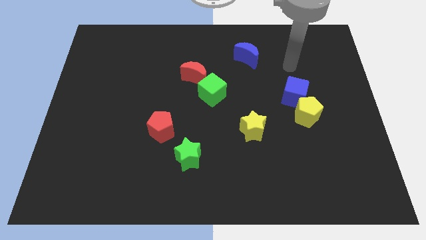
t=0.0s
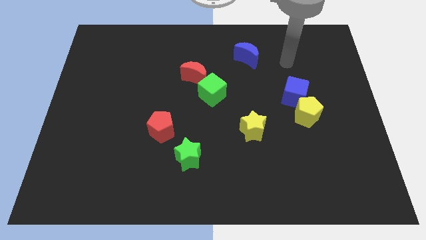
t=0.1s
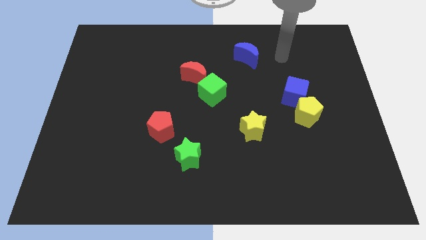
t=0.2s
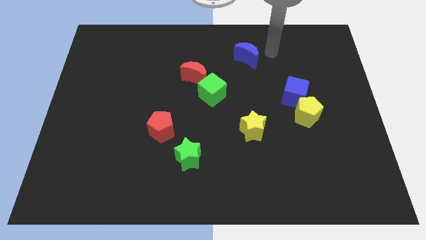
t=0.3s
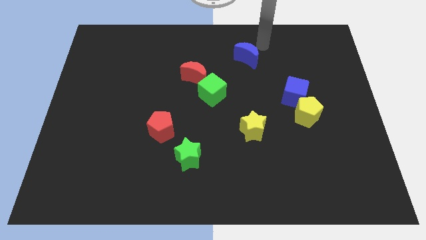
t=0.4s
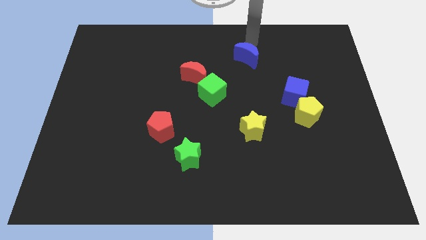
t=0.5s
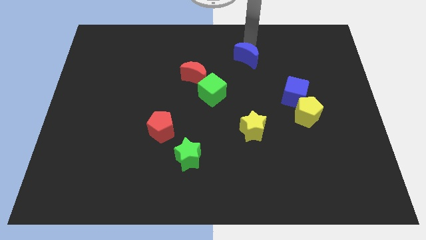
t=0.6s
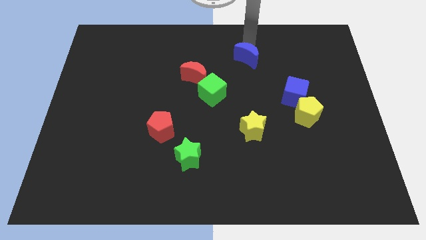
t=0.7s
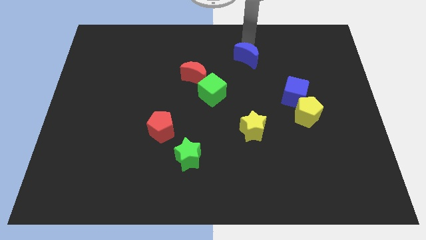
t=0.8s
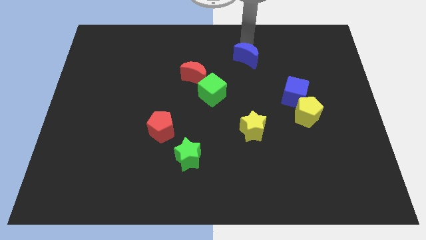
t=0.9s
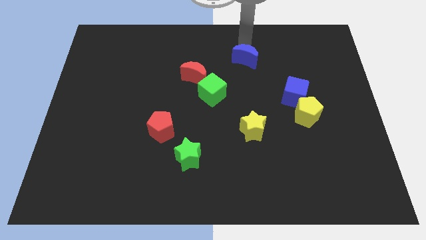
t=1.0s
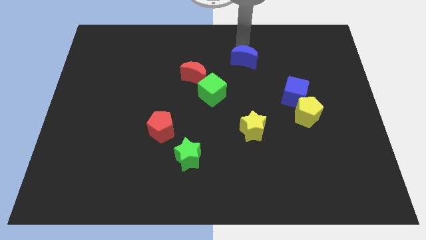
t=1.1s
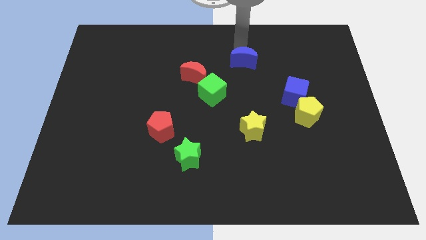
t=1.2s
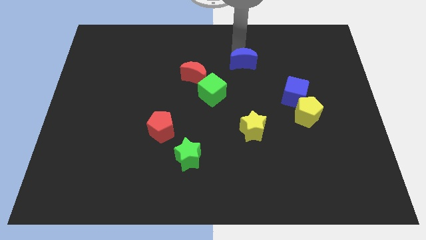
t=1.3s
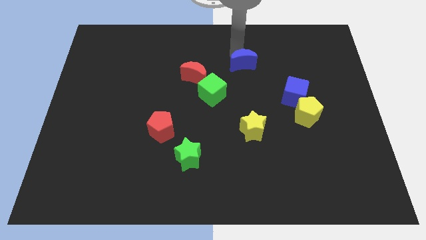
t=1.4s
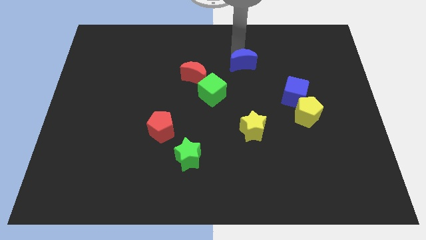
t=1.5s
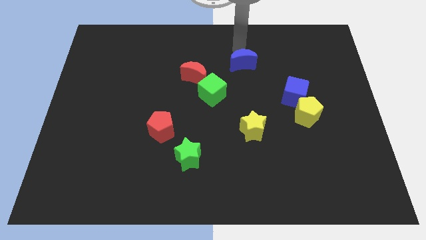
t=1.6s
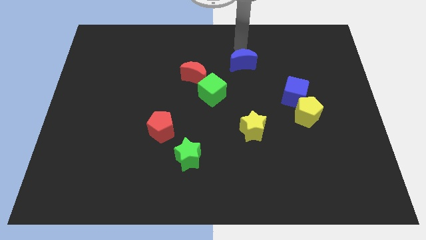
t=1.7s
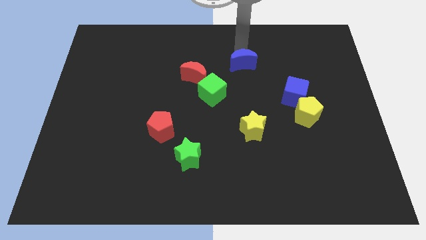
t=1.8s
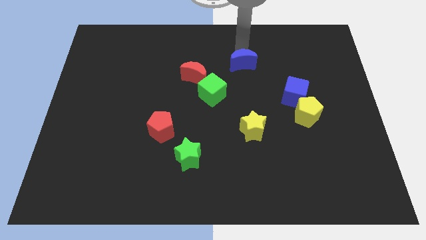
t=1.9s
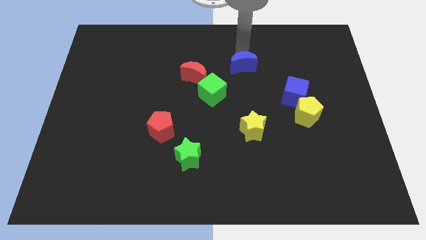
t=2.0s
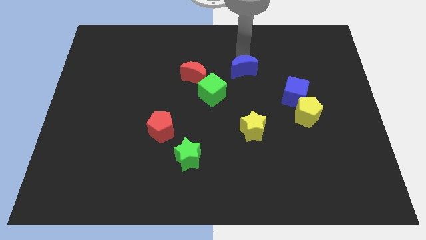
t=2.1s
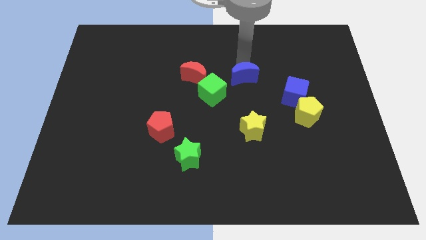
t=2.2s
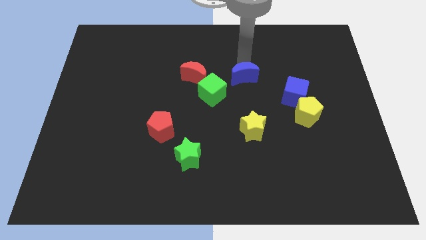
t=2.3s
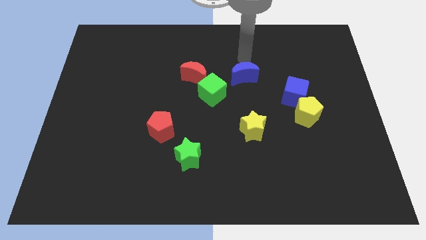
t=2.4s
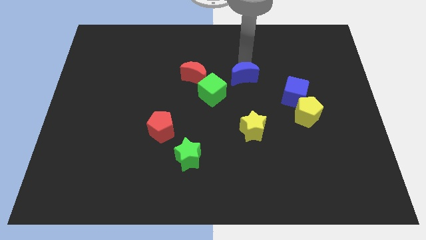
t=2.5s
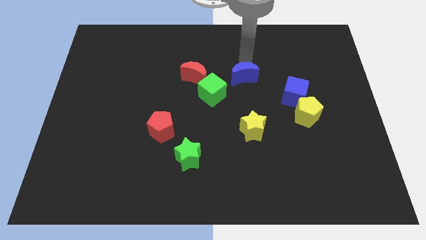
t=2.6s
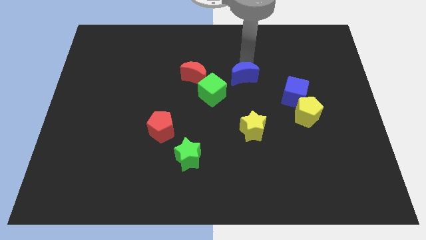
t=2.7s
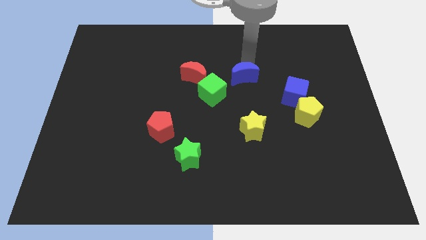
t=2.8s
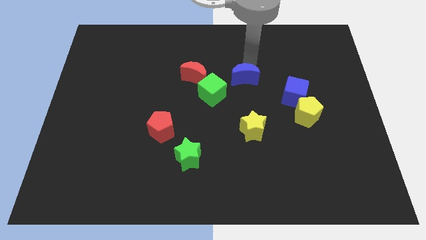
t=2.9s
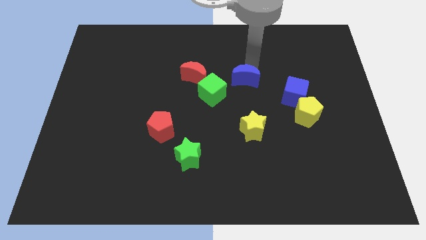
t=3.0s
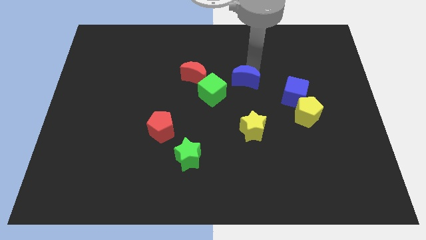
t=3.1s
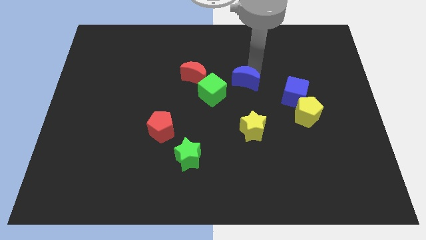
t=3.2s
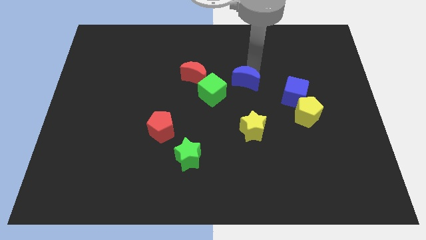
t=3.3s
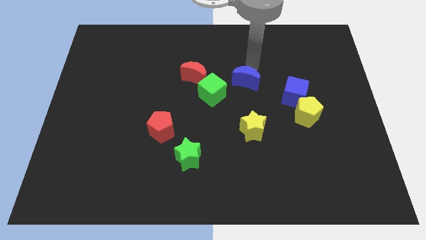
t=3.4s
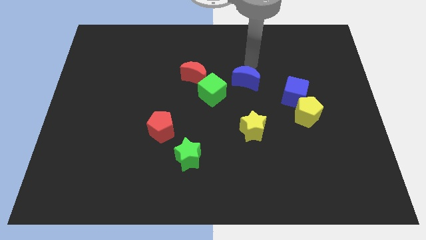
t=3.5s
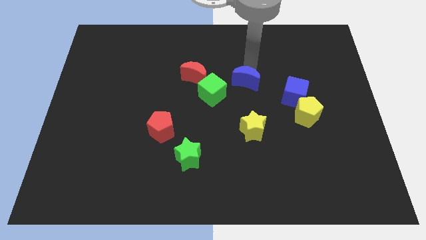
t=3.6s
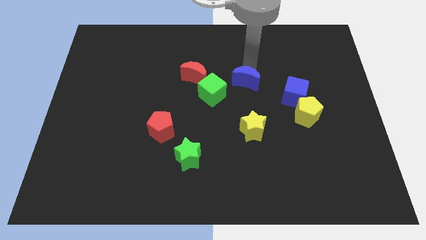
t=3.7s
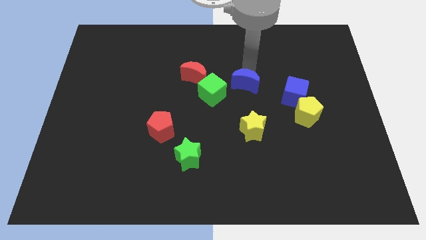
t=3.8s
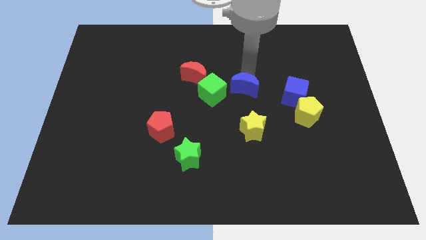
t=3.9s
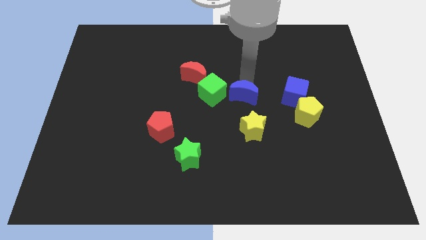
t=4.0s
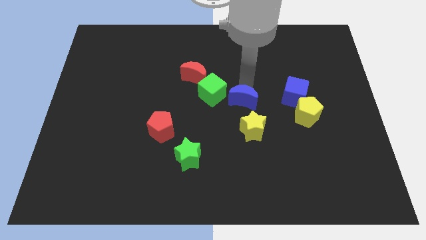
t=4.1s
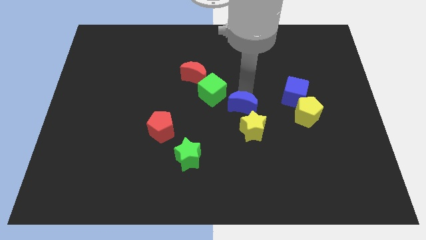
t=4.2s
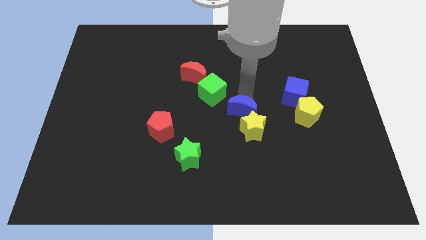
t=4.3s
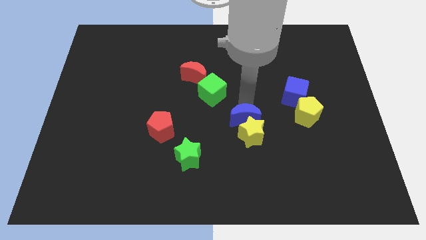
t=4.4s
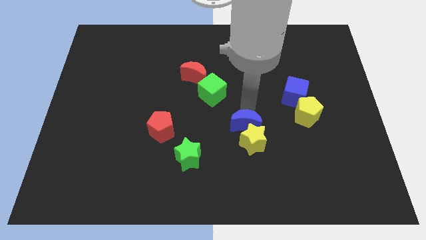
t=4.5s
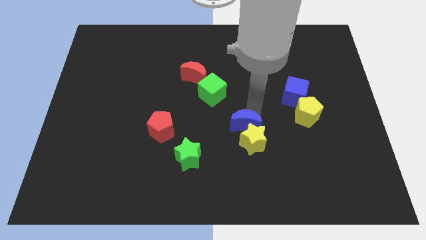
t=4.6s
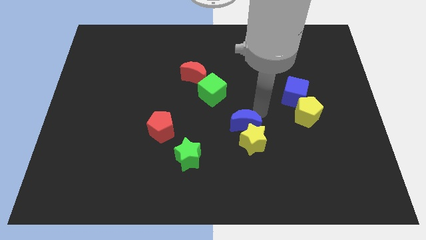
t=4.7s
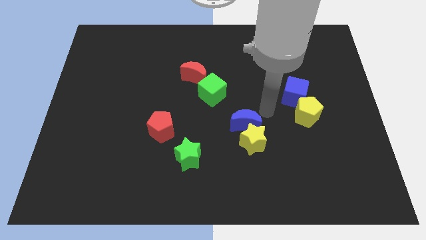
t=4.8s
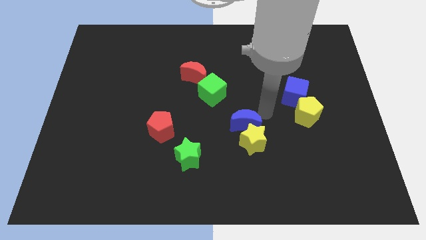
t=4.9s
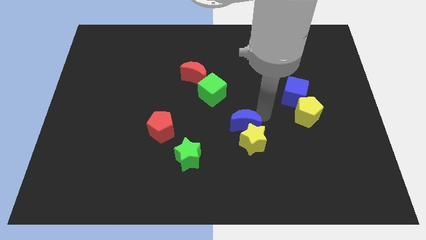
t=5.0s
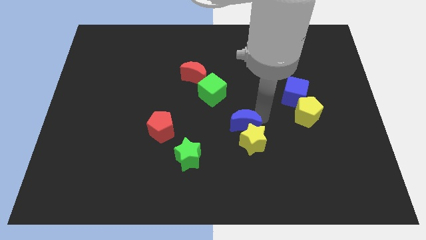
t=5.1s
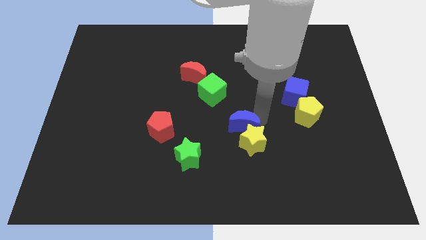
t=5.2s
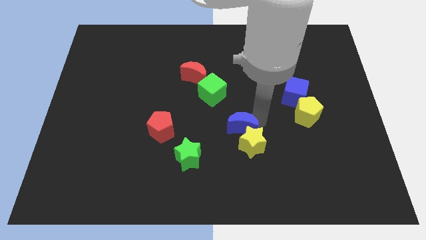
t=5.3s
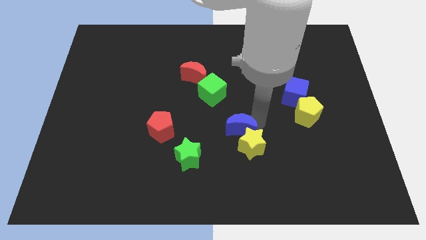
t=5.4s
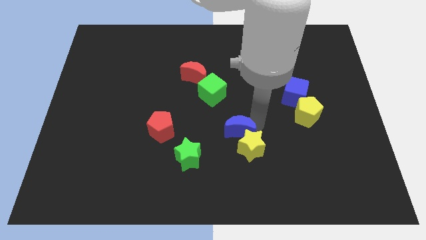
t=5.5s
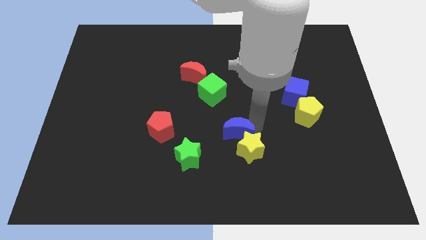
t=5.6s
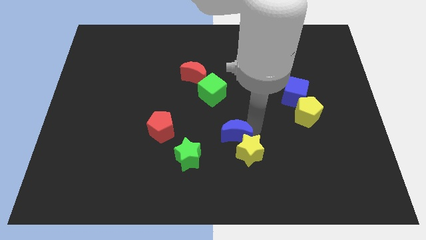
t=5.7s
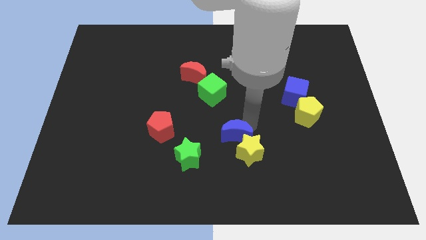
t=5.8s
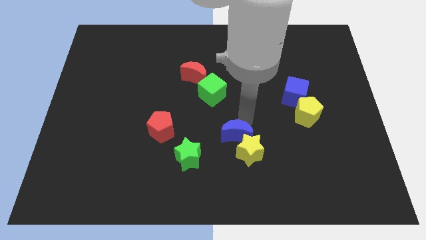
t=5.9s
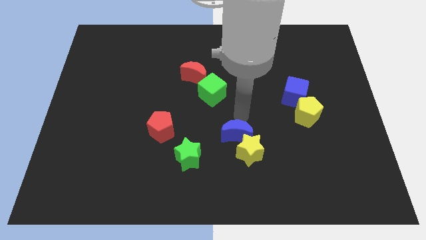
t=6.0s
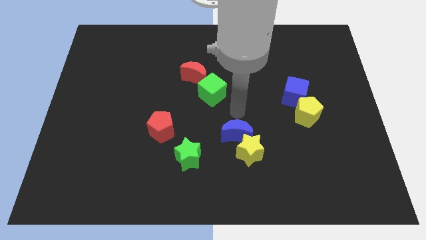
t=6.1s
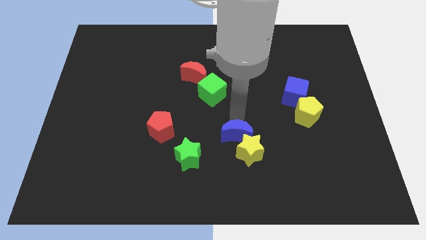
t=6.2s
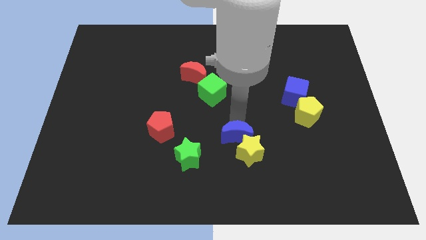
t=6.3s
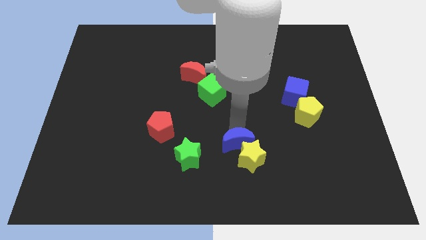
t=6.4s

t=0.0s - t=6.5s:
move the blue moon right of the green star

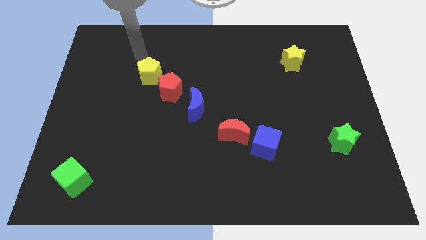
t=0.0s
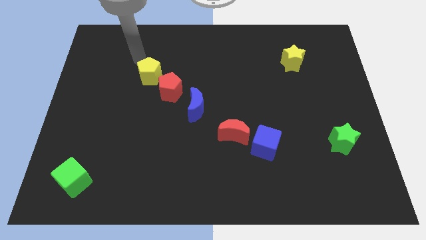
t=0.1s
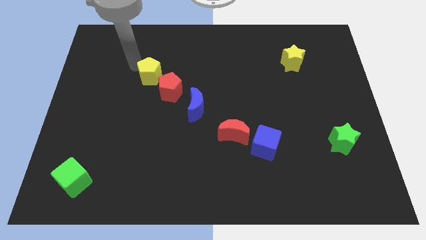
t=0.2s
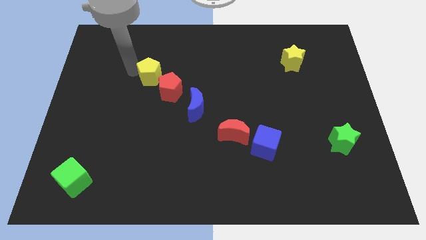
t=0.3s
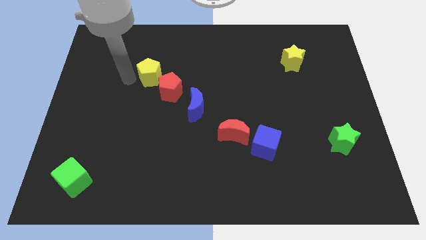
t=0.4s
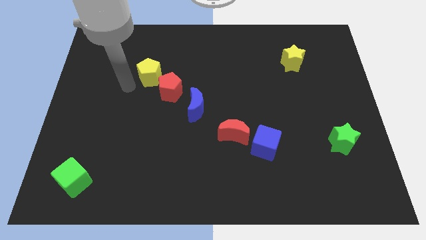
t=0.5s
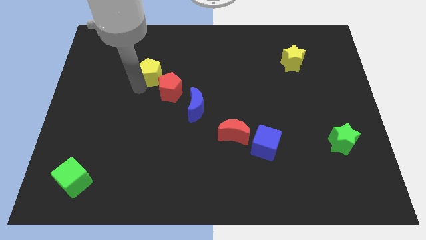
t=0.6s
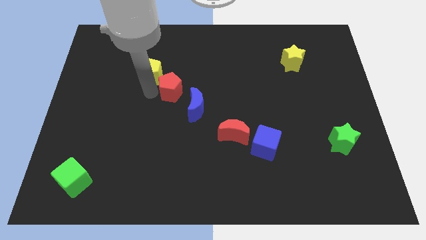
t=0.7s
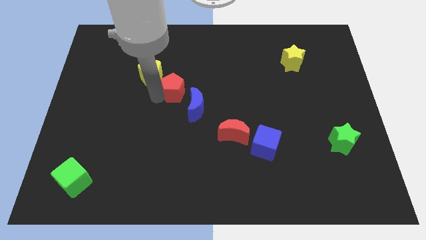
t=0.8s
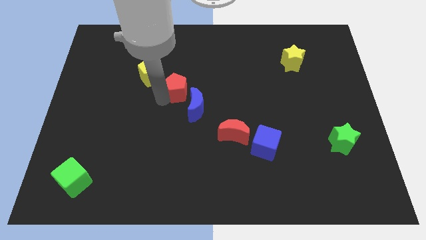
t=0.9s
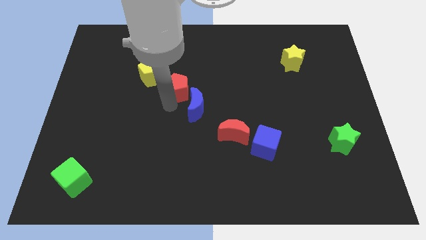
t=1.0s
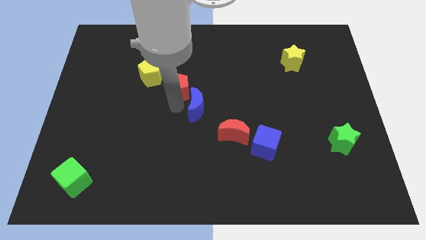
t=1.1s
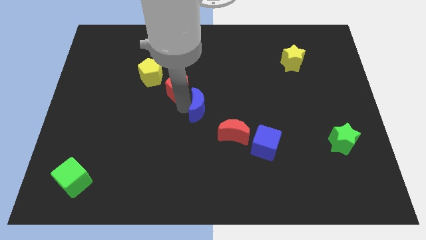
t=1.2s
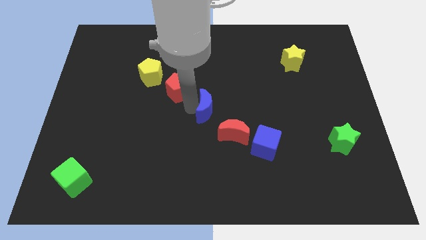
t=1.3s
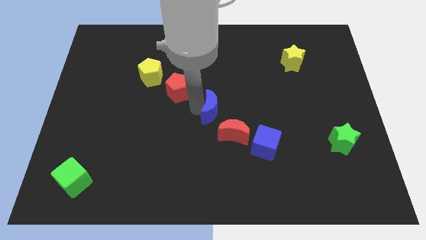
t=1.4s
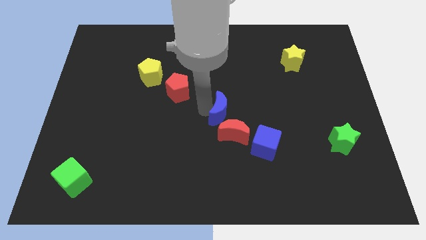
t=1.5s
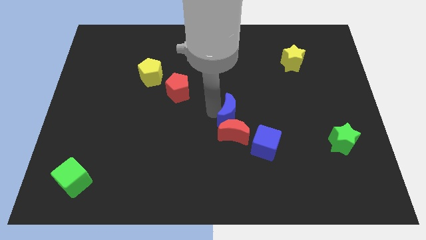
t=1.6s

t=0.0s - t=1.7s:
push the blue moon to the top right side of the red moon
